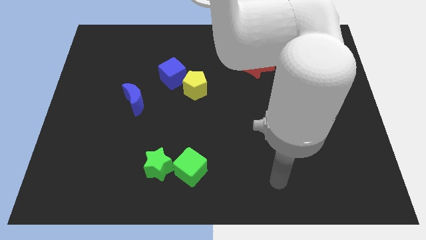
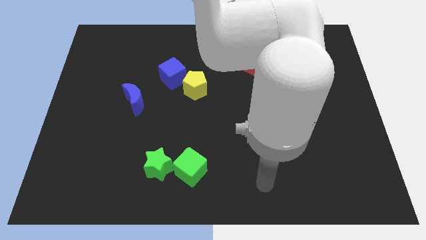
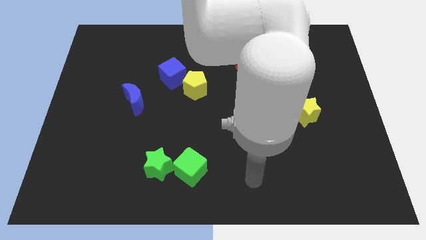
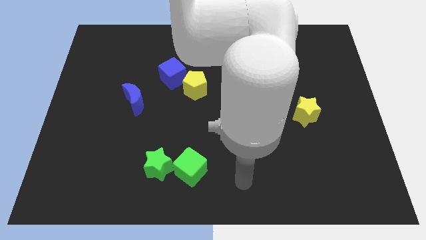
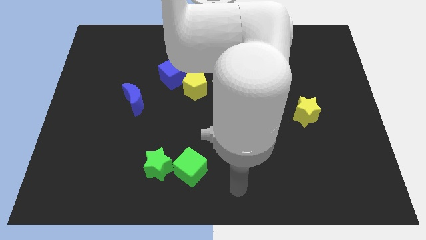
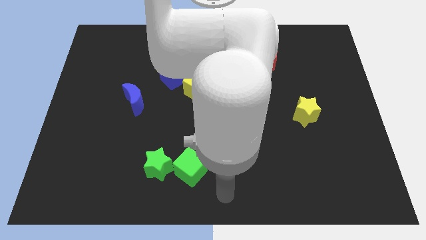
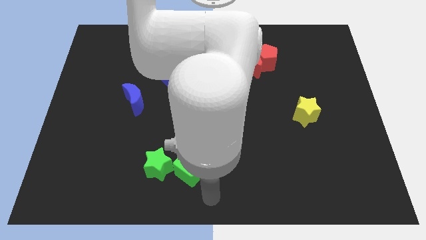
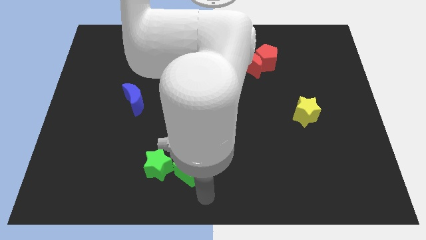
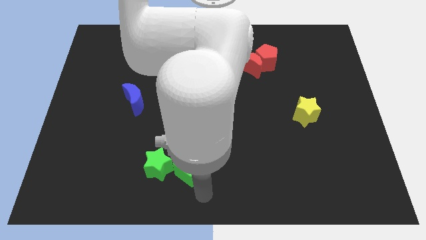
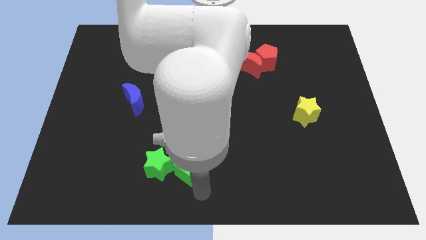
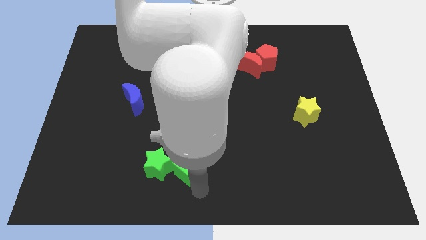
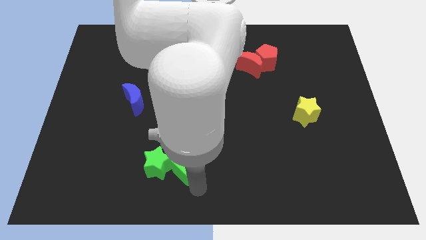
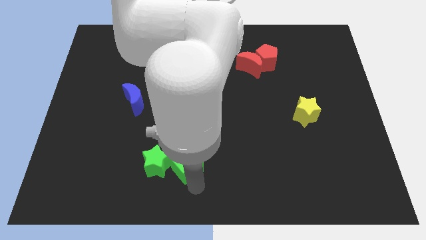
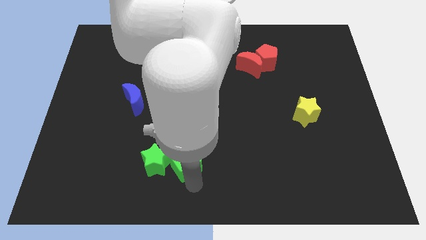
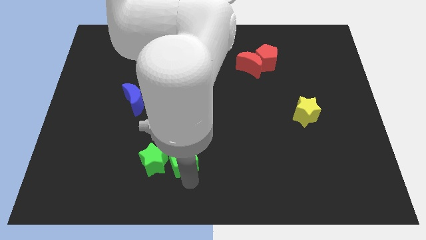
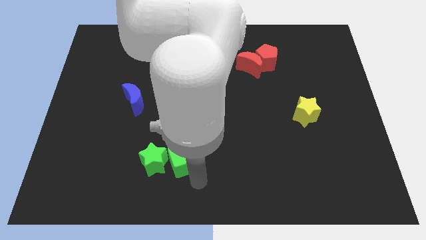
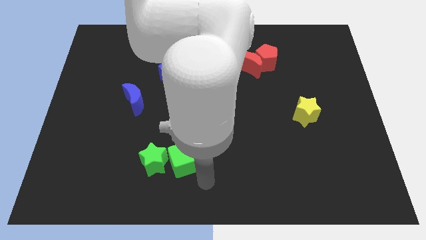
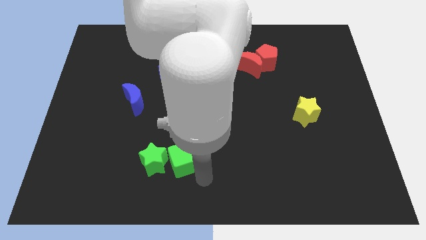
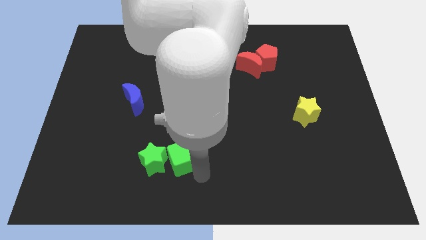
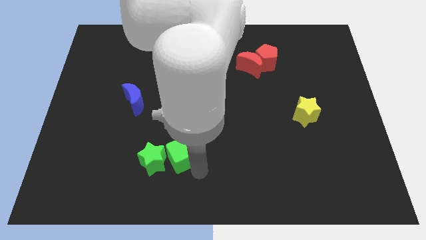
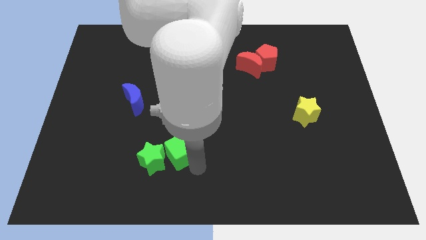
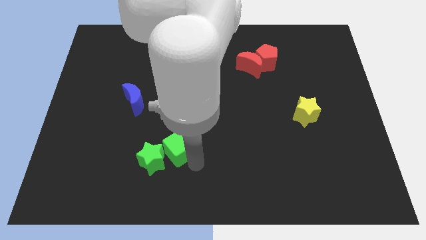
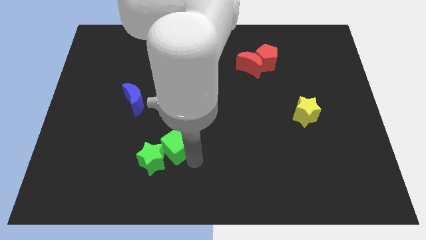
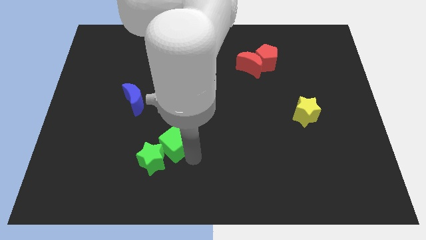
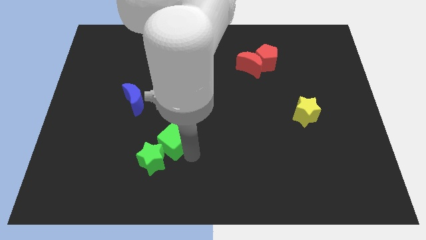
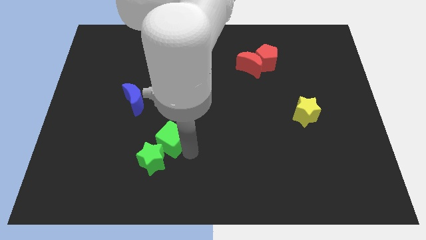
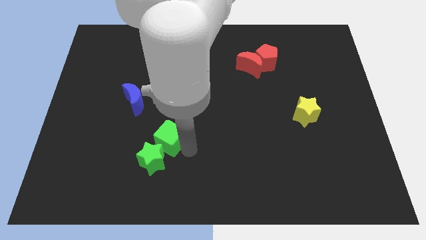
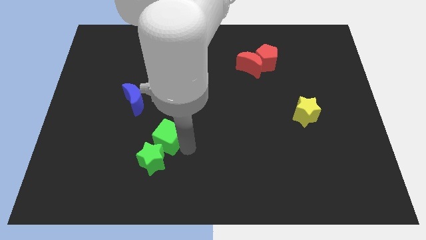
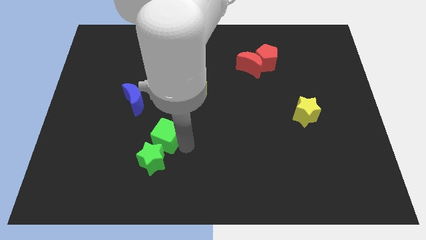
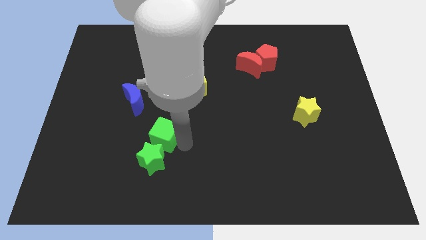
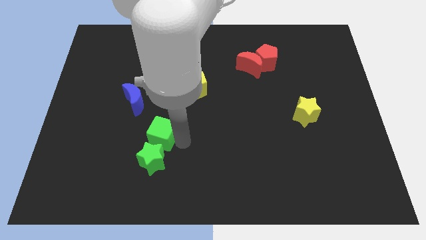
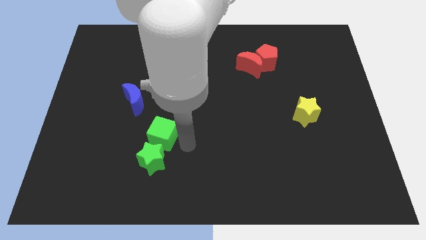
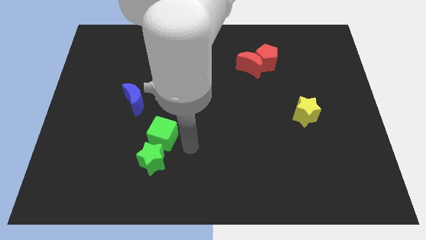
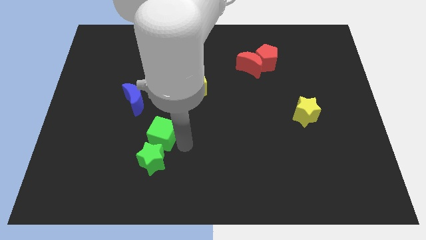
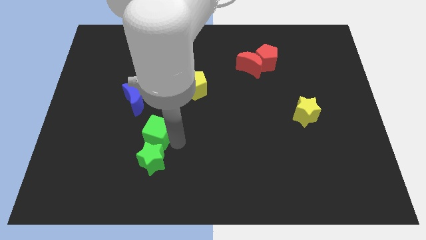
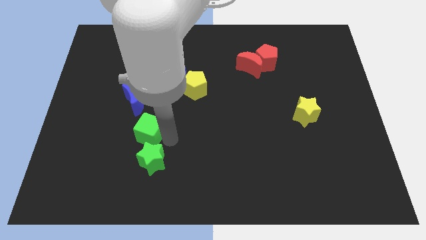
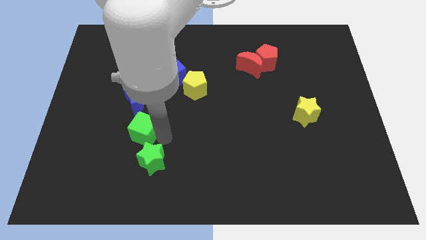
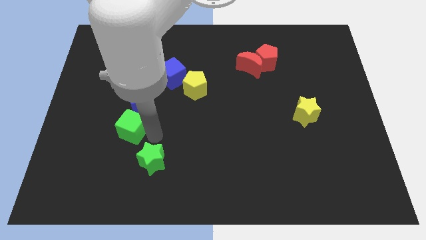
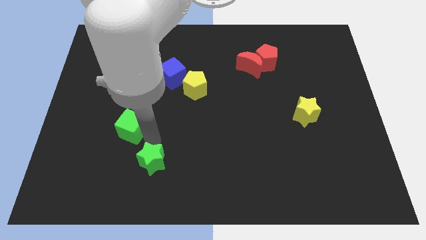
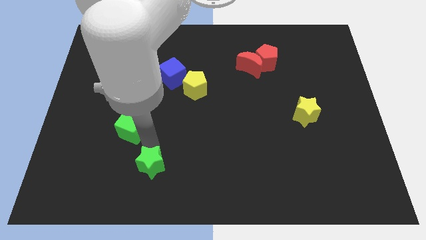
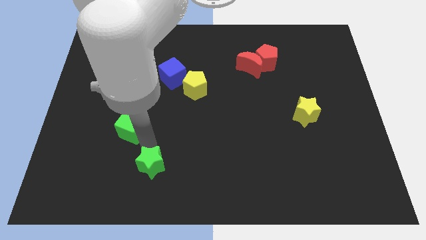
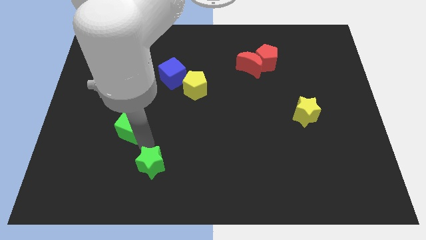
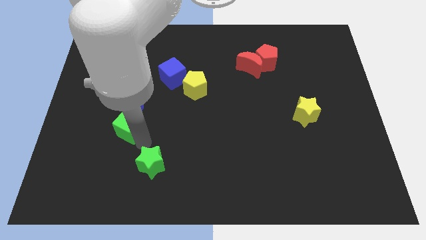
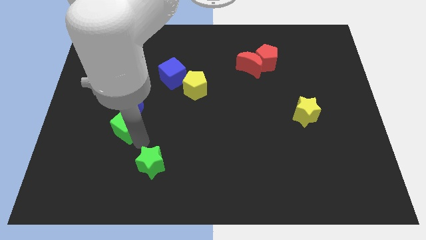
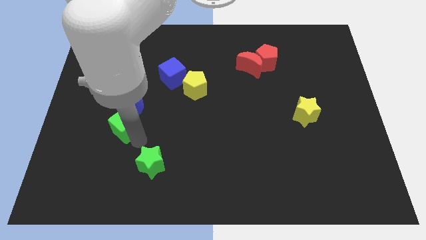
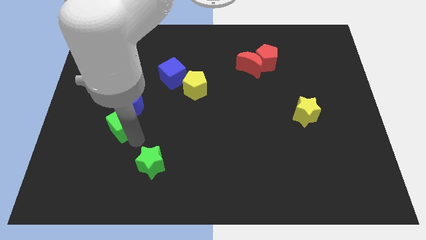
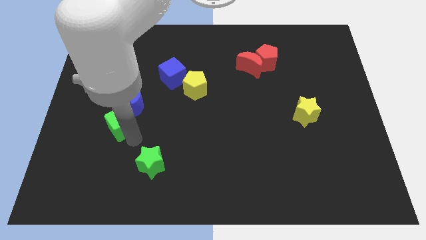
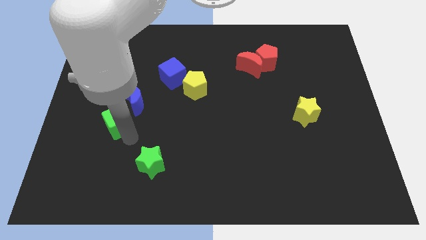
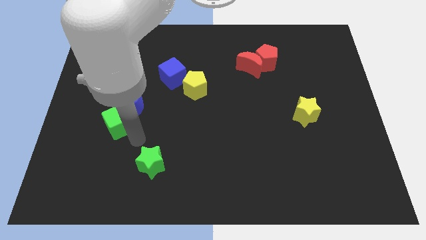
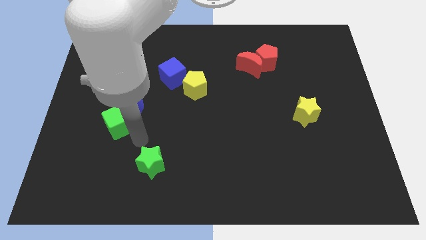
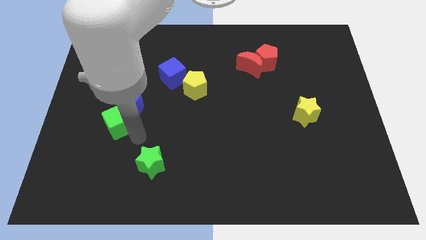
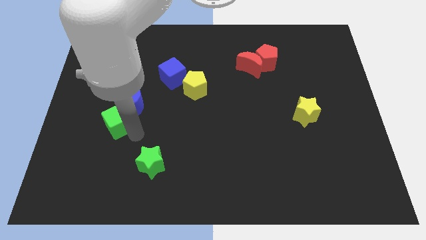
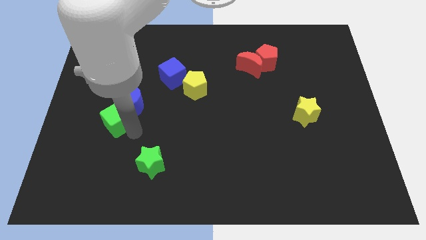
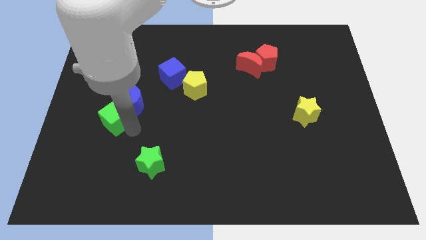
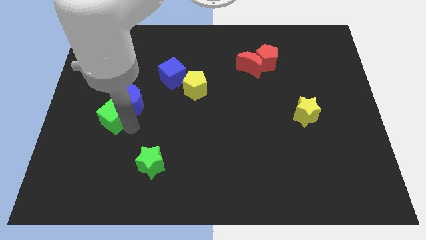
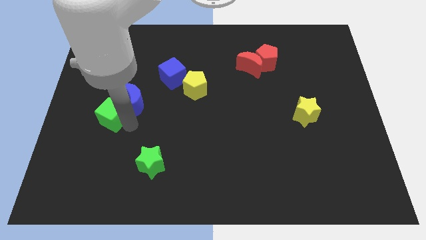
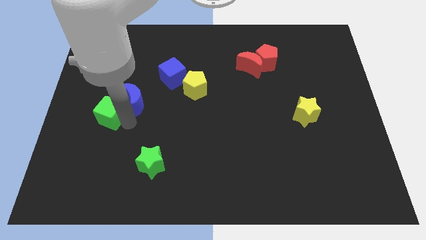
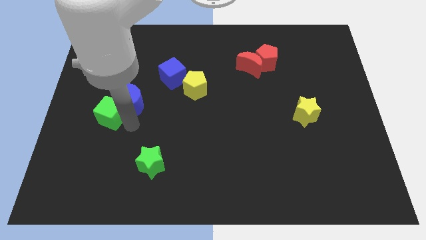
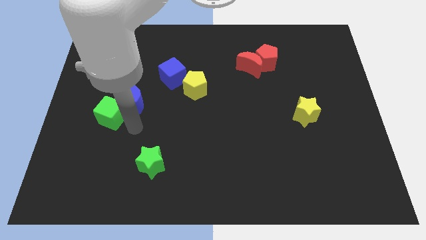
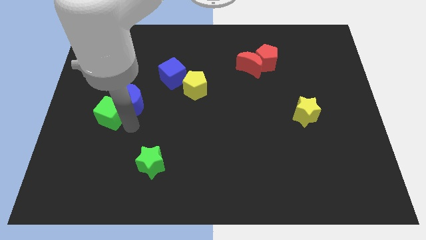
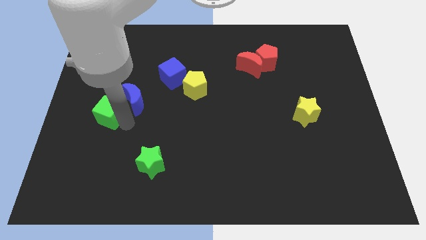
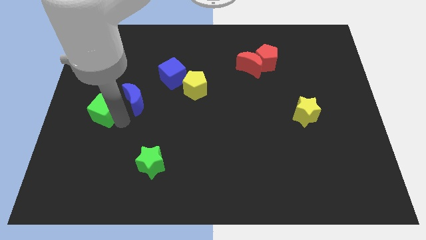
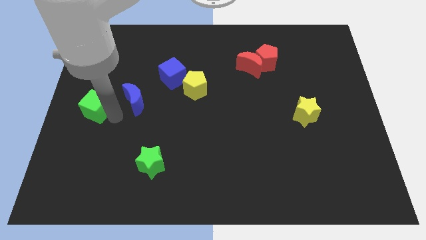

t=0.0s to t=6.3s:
move the green cube to the left side of the board
